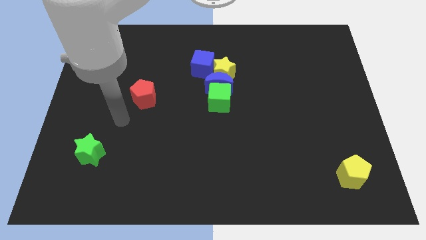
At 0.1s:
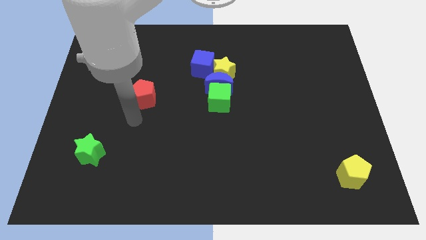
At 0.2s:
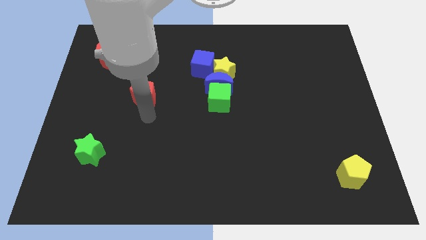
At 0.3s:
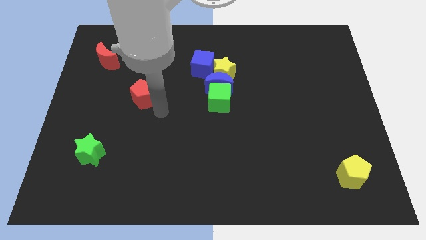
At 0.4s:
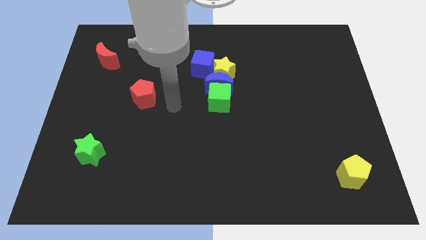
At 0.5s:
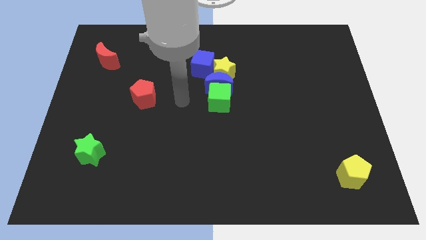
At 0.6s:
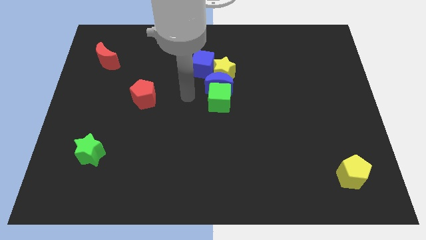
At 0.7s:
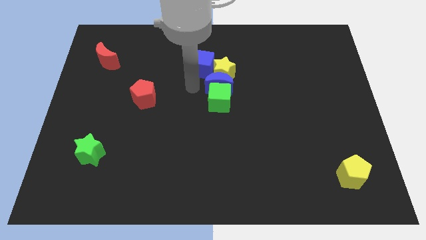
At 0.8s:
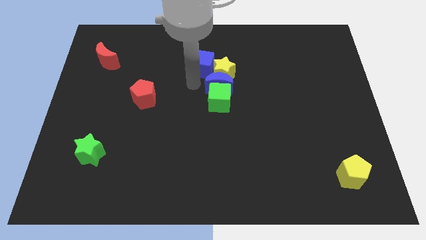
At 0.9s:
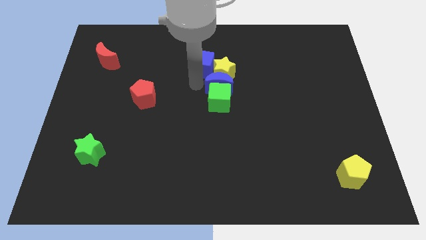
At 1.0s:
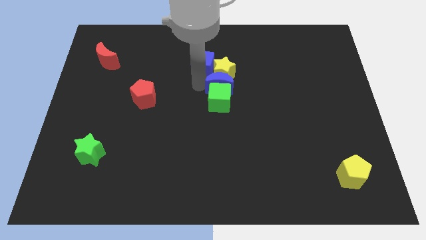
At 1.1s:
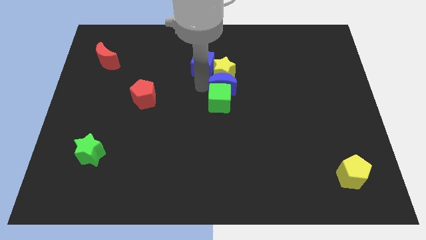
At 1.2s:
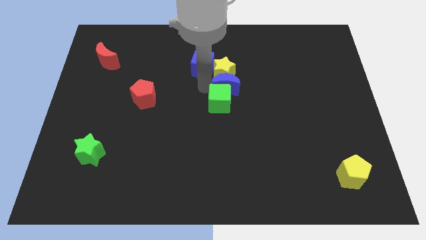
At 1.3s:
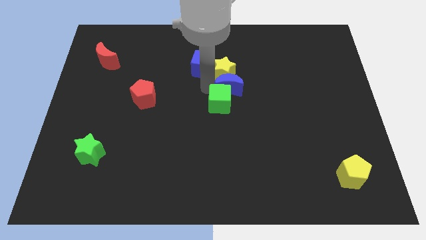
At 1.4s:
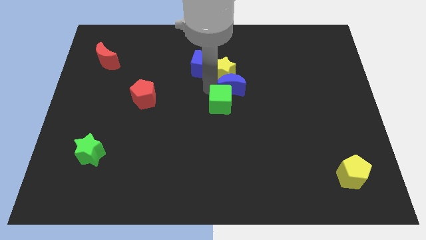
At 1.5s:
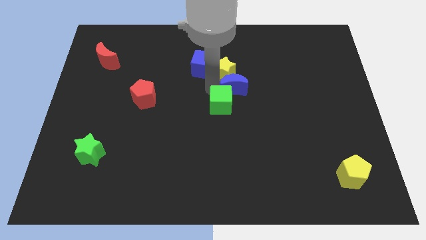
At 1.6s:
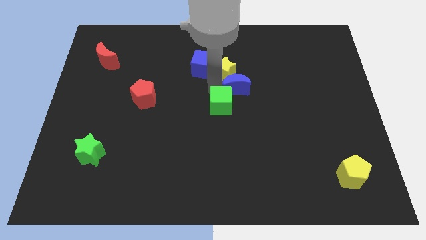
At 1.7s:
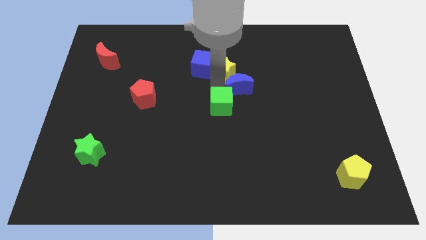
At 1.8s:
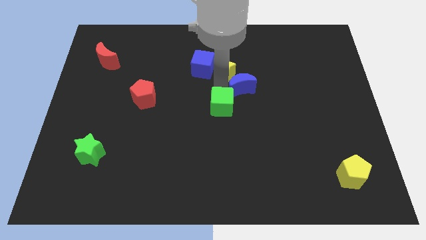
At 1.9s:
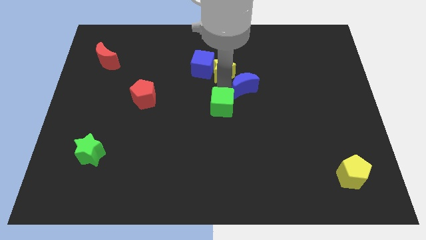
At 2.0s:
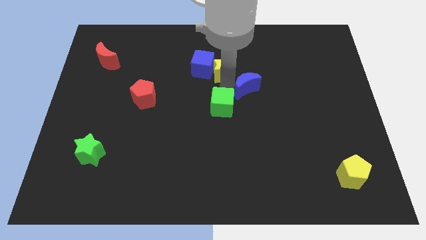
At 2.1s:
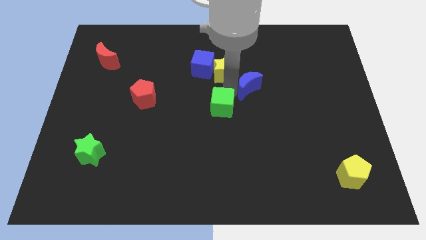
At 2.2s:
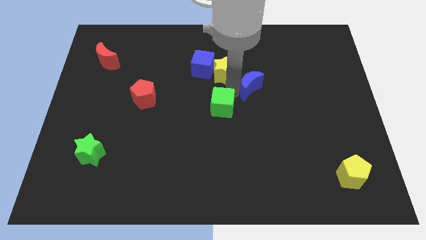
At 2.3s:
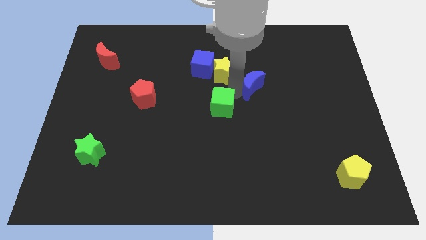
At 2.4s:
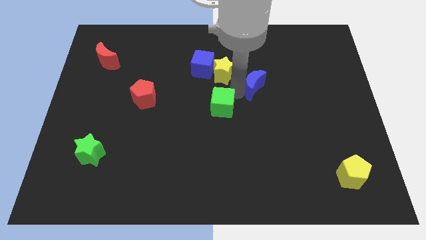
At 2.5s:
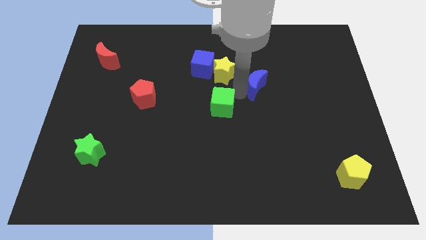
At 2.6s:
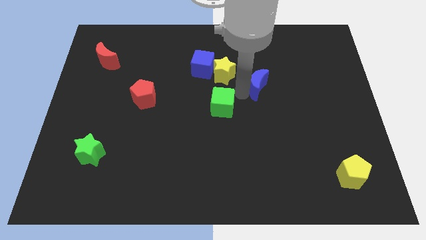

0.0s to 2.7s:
separate the blue moon from the group of blocks

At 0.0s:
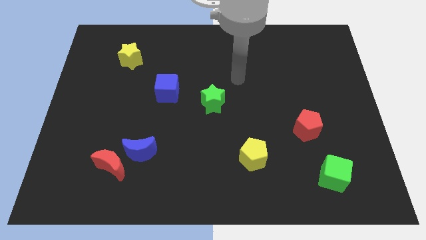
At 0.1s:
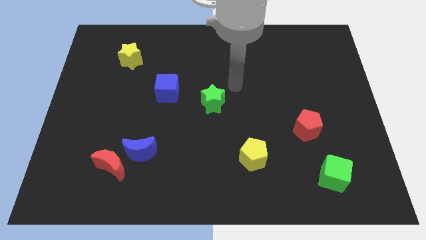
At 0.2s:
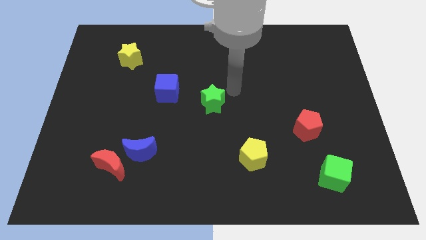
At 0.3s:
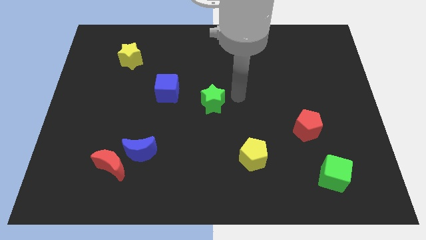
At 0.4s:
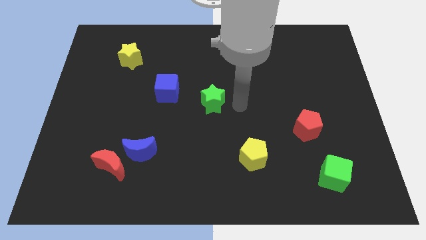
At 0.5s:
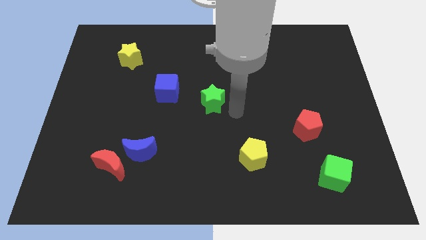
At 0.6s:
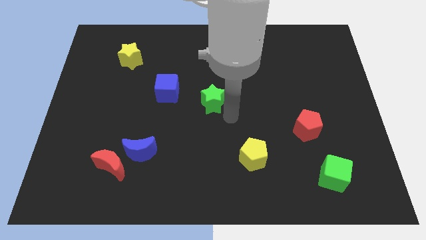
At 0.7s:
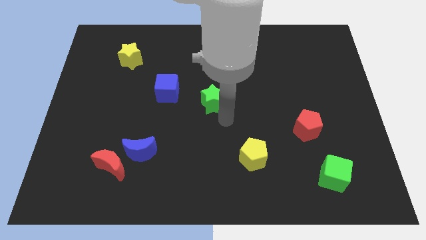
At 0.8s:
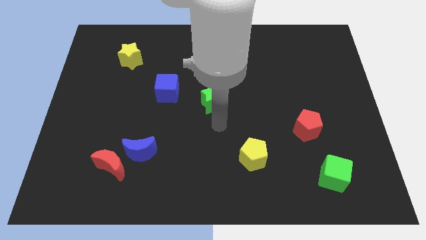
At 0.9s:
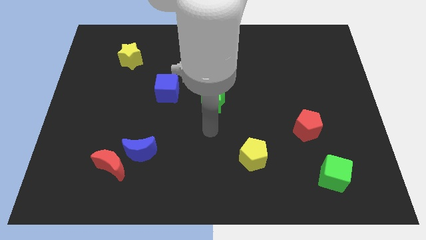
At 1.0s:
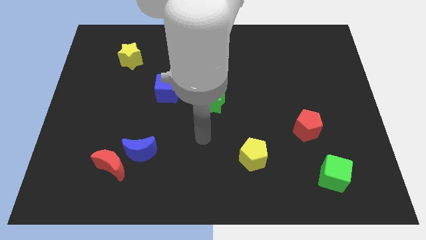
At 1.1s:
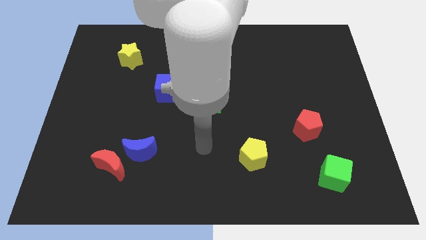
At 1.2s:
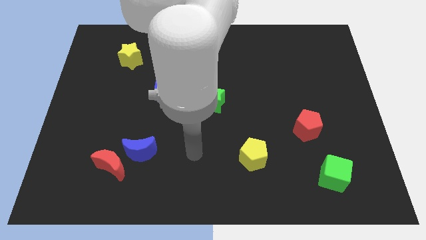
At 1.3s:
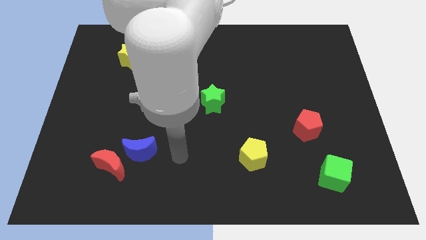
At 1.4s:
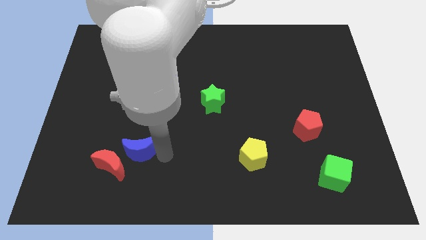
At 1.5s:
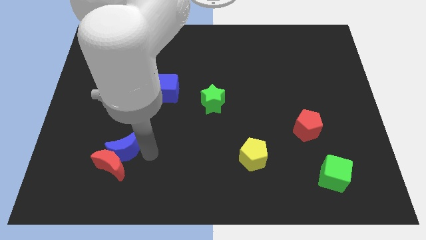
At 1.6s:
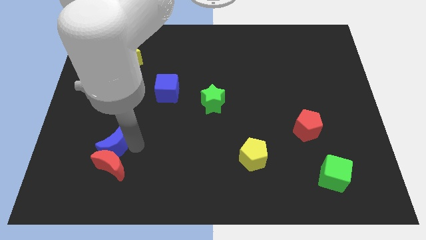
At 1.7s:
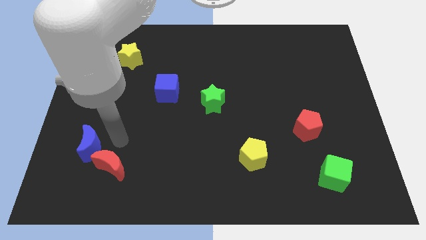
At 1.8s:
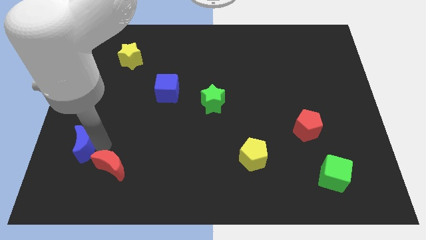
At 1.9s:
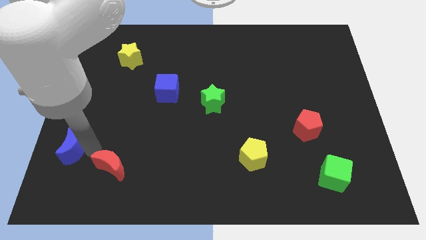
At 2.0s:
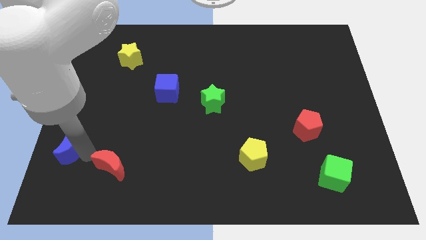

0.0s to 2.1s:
separate the red moon from the blue moon

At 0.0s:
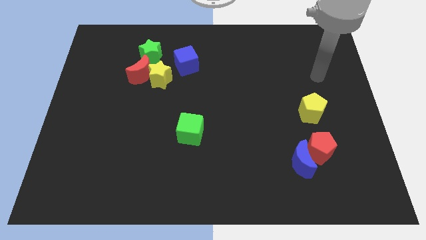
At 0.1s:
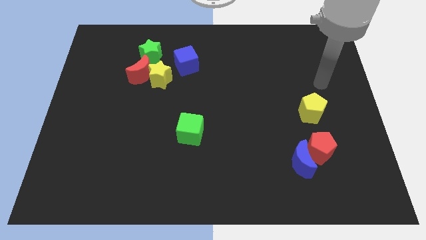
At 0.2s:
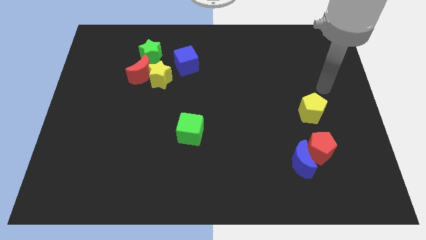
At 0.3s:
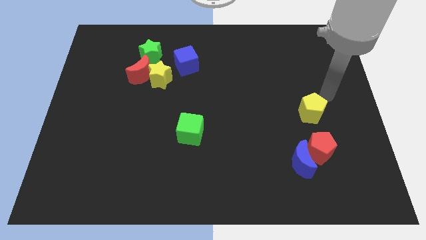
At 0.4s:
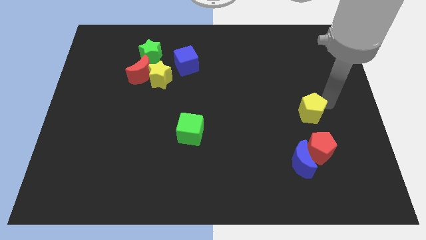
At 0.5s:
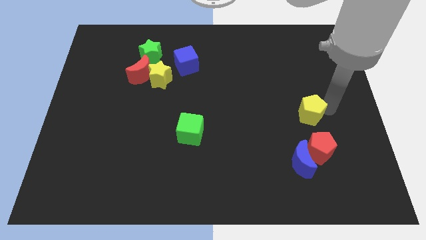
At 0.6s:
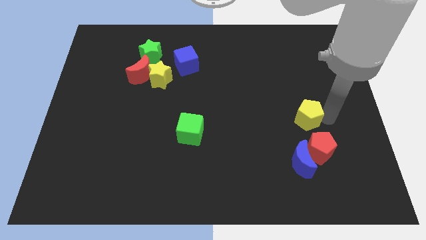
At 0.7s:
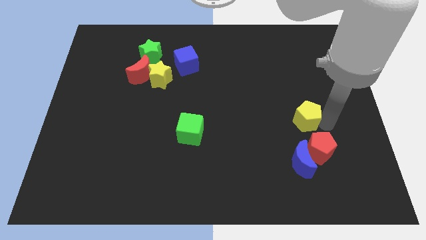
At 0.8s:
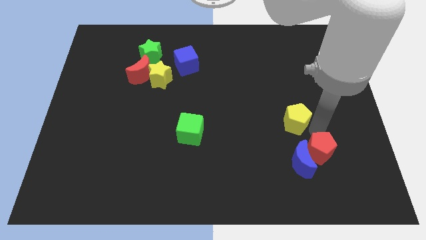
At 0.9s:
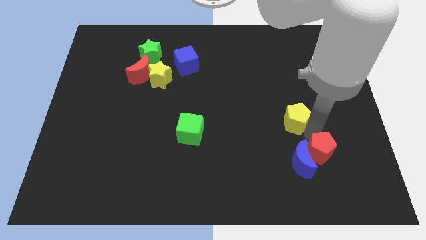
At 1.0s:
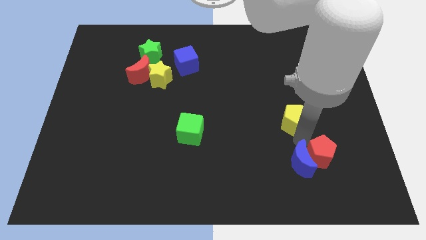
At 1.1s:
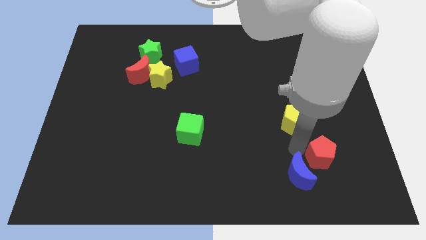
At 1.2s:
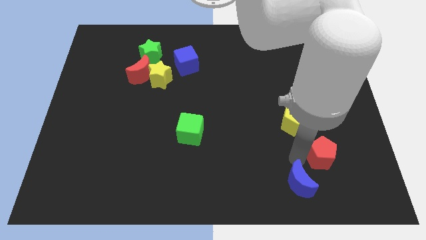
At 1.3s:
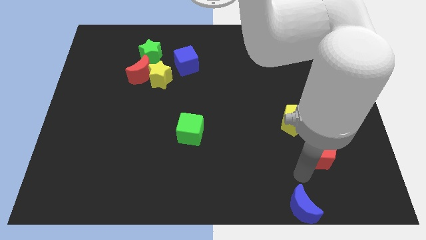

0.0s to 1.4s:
separate the red pentagon from the blue moon

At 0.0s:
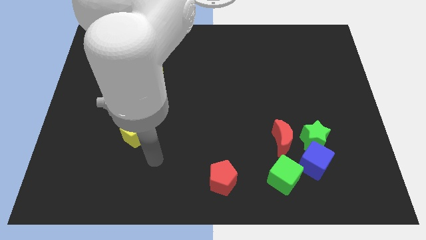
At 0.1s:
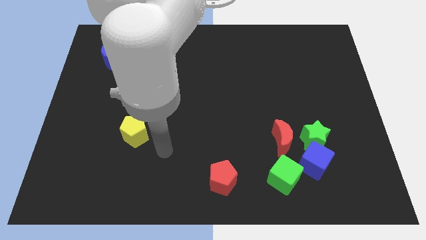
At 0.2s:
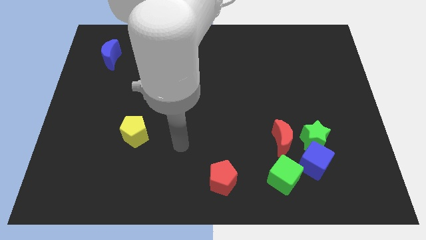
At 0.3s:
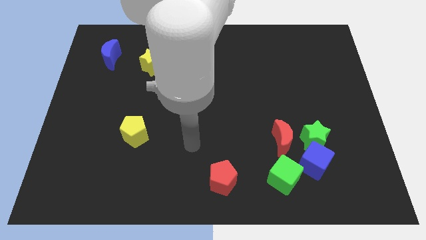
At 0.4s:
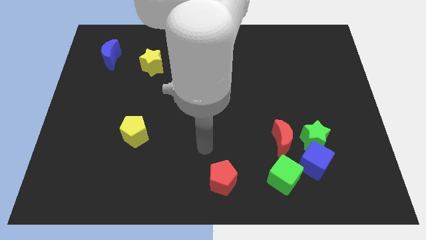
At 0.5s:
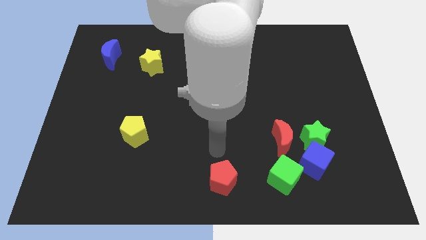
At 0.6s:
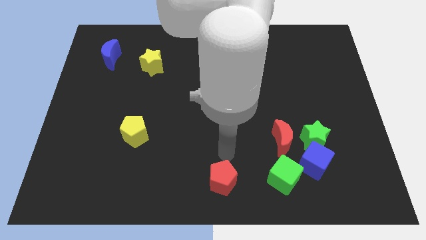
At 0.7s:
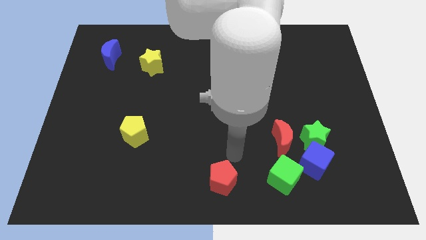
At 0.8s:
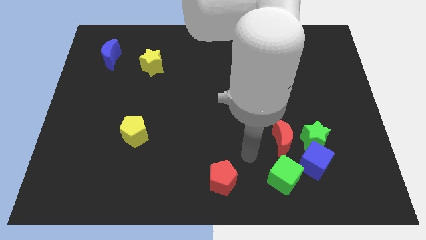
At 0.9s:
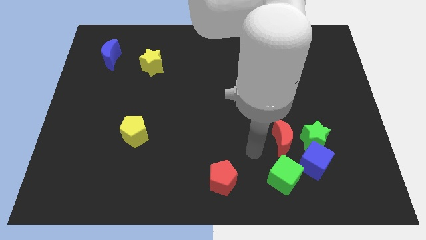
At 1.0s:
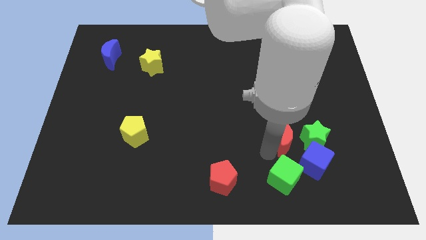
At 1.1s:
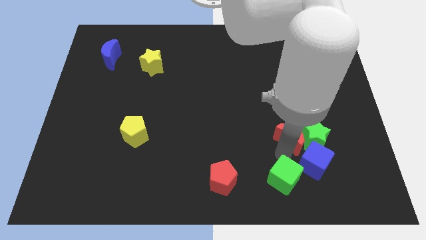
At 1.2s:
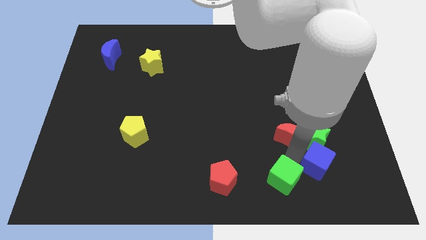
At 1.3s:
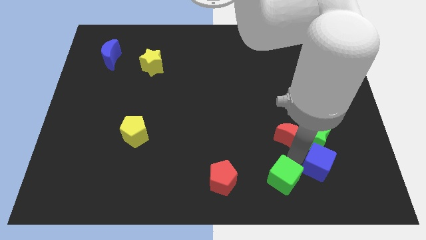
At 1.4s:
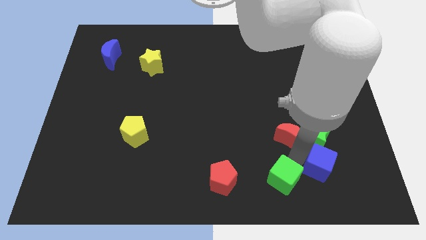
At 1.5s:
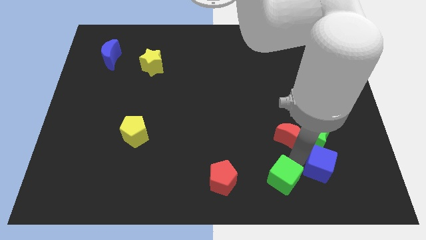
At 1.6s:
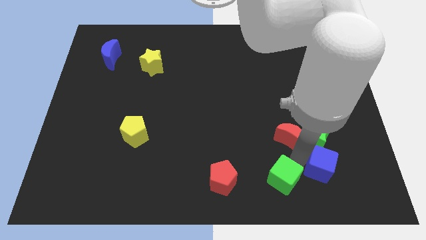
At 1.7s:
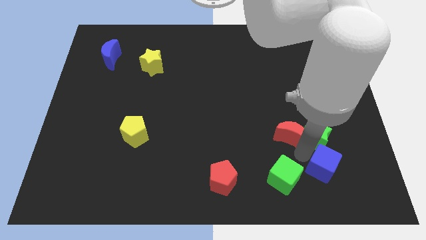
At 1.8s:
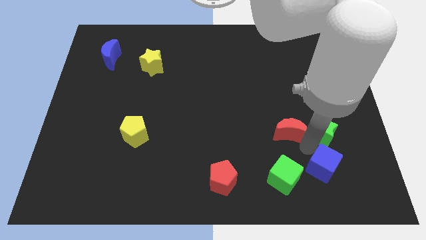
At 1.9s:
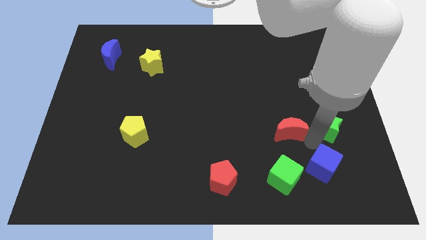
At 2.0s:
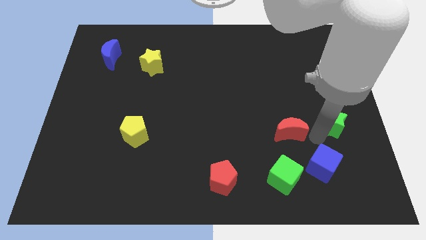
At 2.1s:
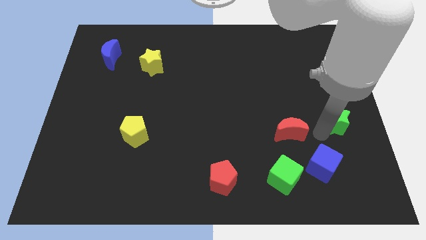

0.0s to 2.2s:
pull the green star apart from the blue cube and red moon

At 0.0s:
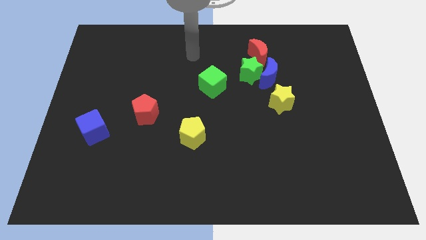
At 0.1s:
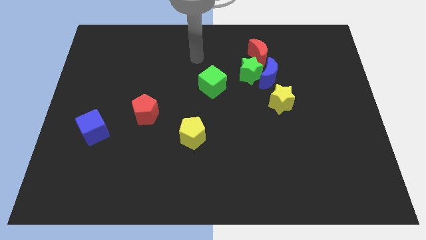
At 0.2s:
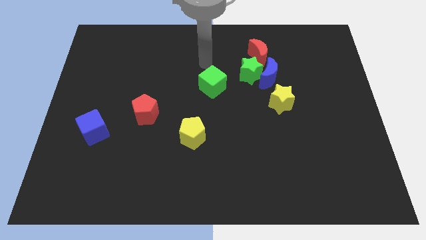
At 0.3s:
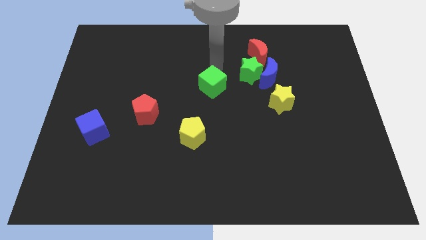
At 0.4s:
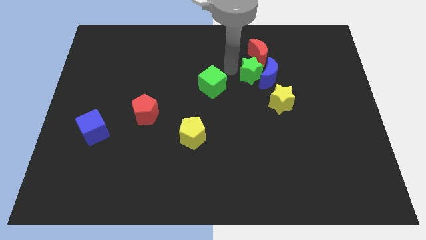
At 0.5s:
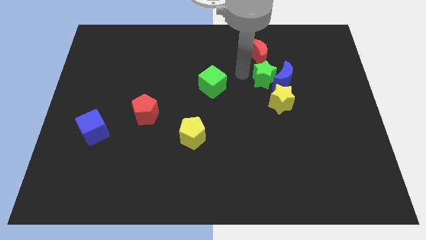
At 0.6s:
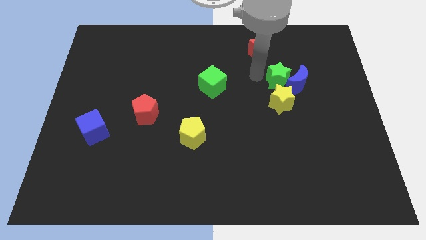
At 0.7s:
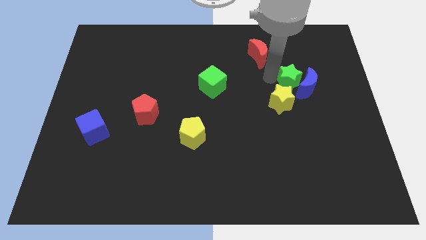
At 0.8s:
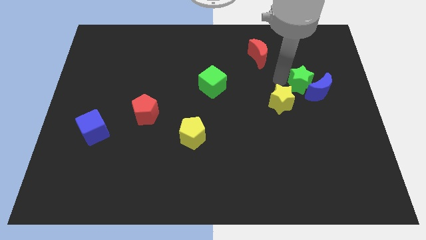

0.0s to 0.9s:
move the blue moon away from the green star, red moon, and yellow star
